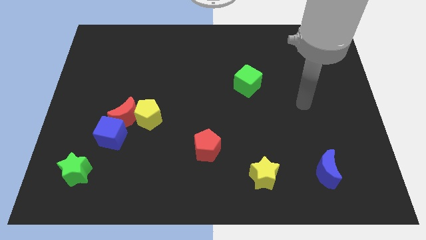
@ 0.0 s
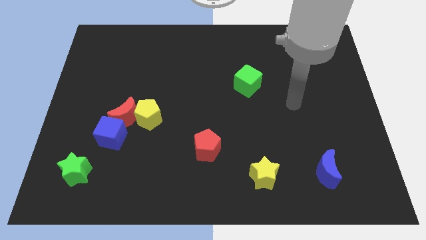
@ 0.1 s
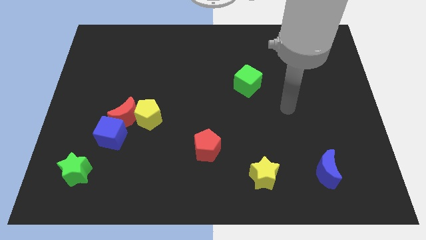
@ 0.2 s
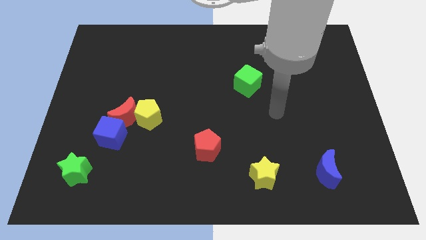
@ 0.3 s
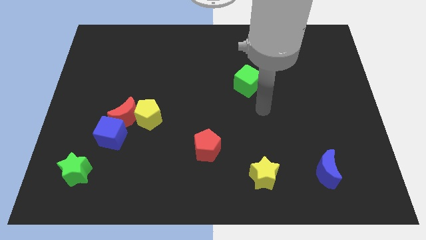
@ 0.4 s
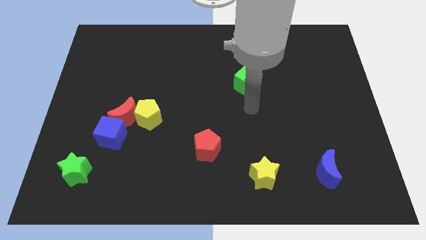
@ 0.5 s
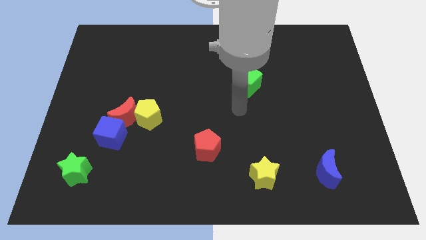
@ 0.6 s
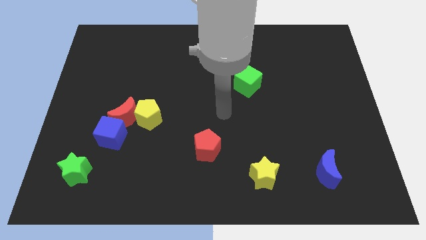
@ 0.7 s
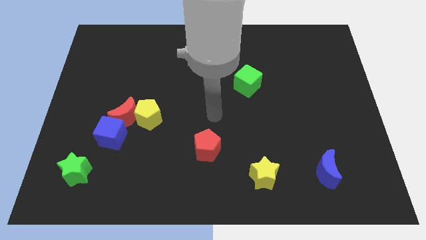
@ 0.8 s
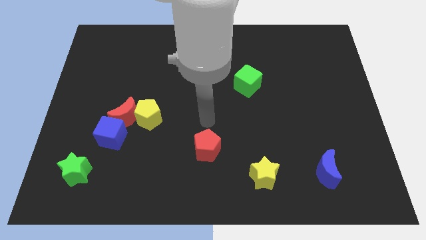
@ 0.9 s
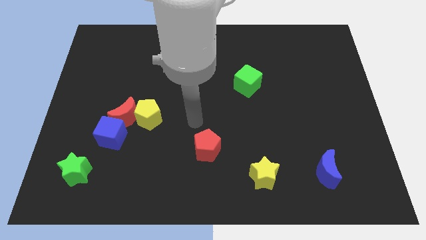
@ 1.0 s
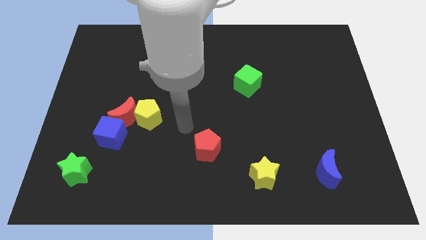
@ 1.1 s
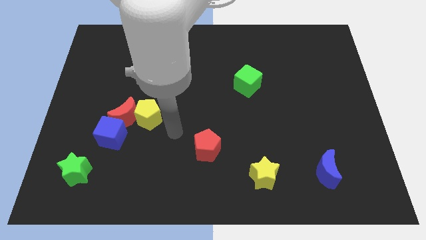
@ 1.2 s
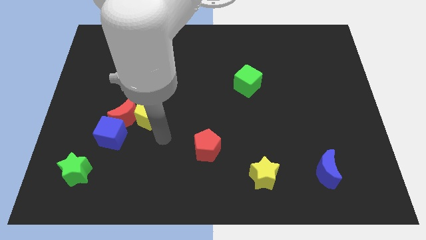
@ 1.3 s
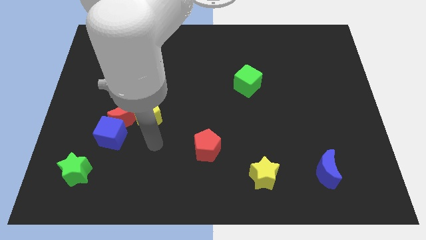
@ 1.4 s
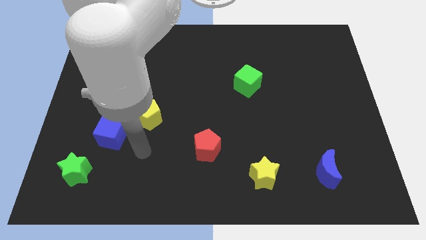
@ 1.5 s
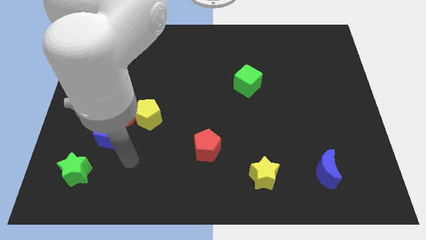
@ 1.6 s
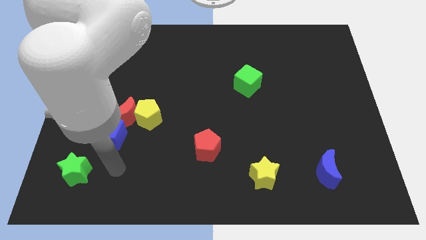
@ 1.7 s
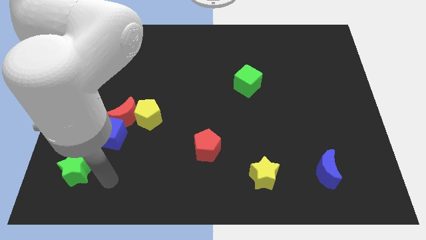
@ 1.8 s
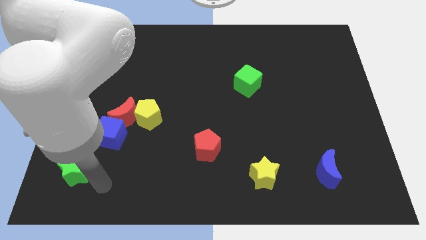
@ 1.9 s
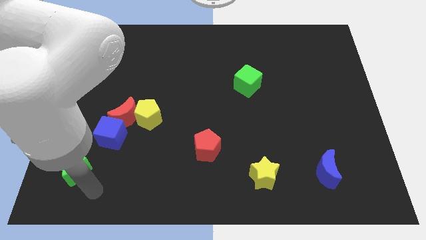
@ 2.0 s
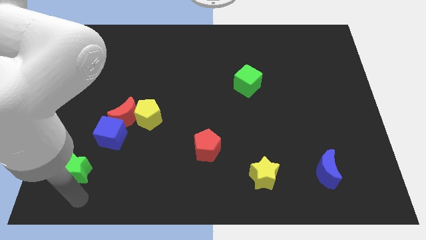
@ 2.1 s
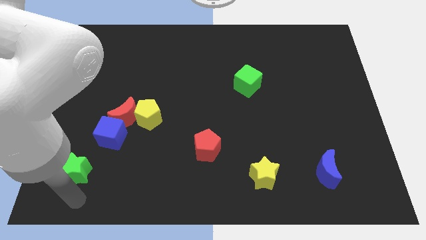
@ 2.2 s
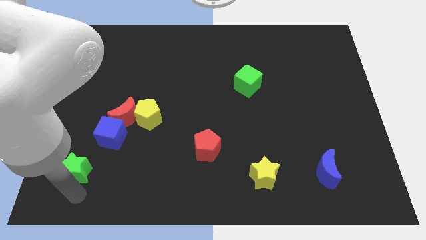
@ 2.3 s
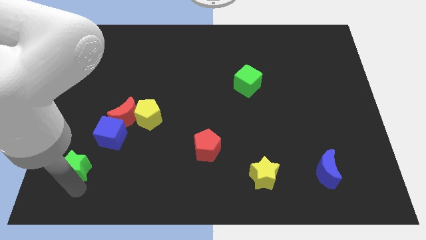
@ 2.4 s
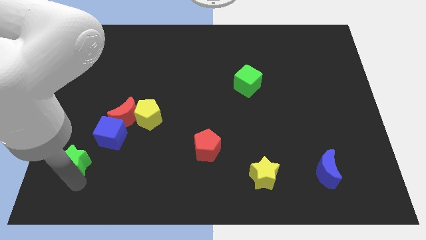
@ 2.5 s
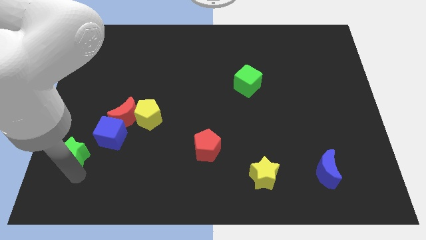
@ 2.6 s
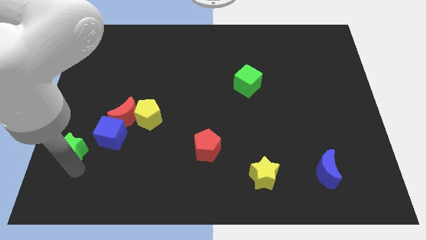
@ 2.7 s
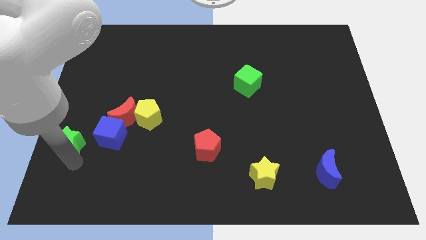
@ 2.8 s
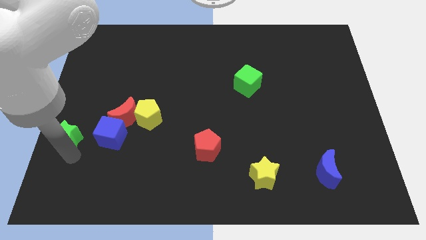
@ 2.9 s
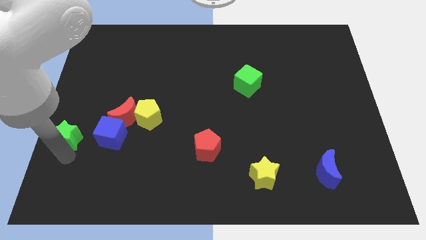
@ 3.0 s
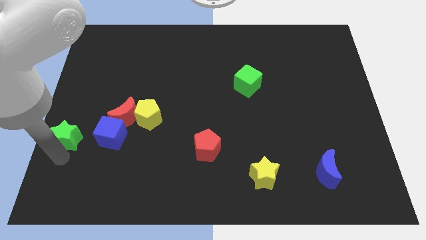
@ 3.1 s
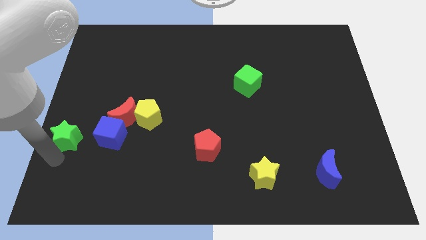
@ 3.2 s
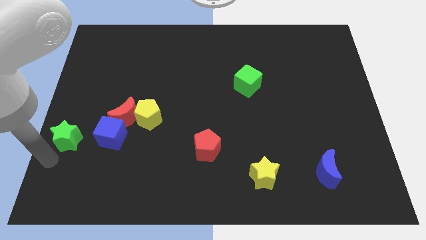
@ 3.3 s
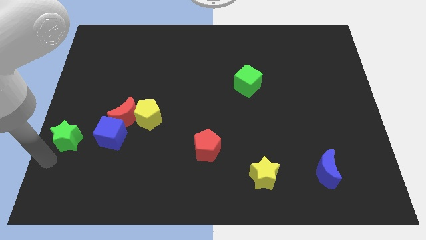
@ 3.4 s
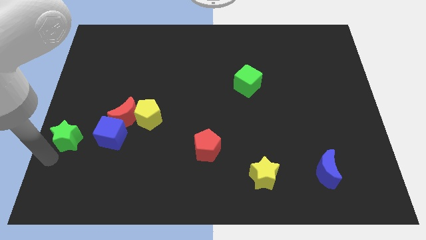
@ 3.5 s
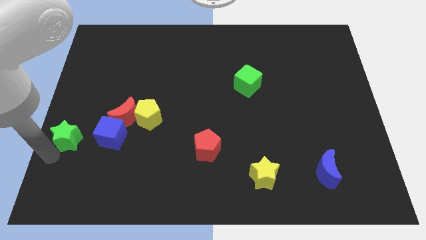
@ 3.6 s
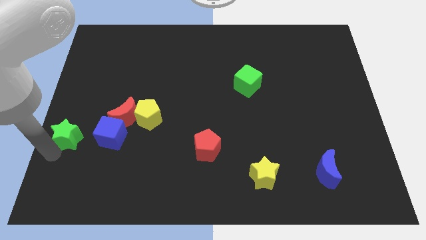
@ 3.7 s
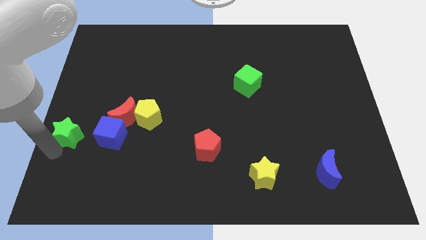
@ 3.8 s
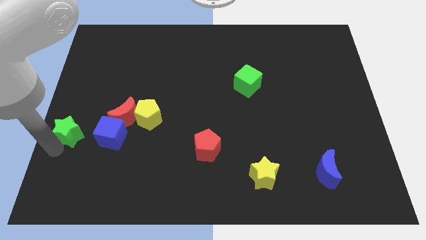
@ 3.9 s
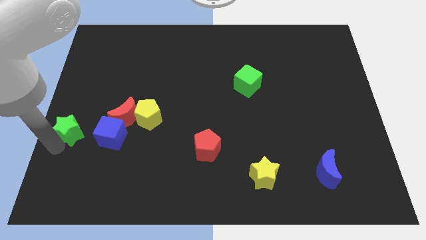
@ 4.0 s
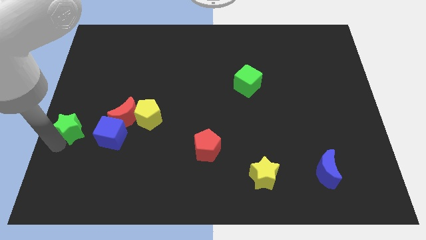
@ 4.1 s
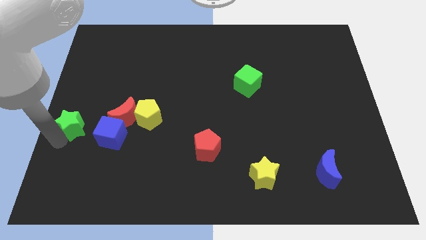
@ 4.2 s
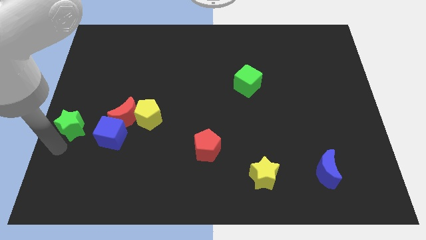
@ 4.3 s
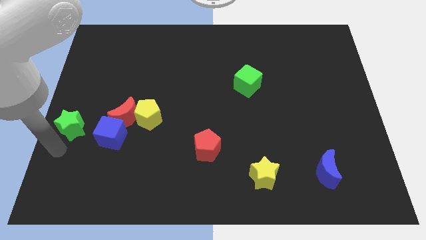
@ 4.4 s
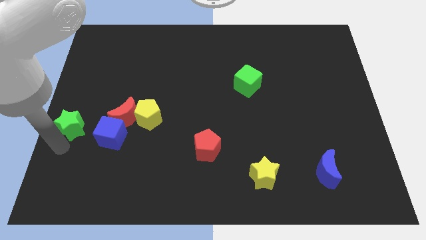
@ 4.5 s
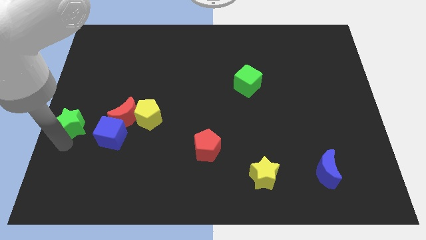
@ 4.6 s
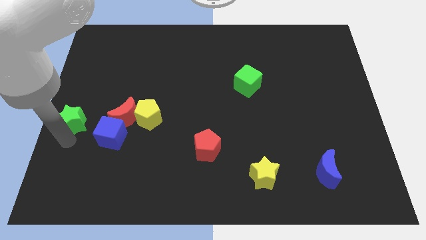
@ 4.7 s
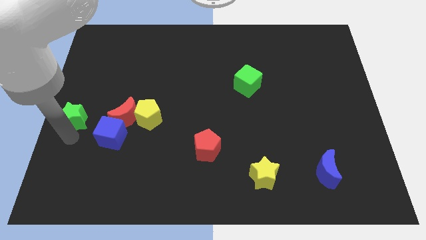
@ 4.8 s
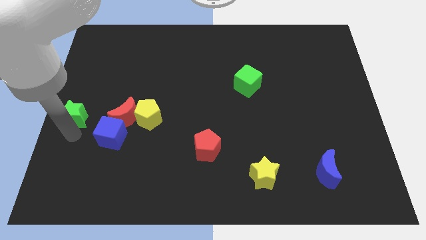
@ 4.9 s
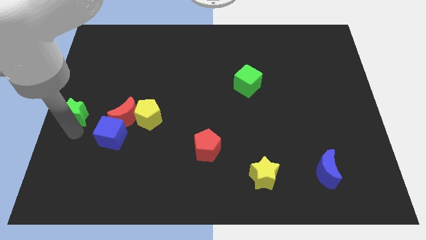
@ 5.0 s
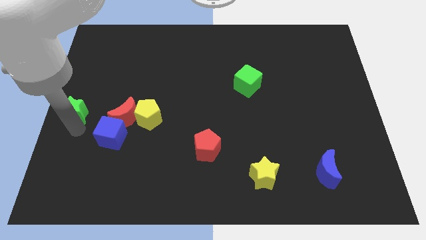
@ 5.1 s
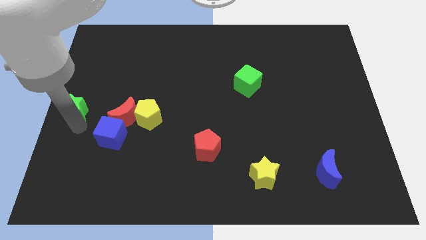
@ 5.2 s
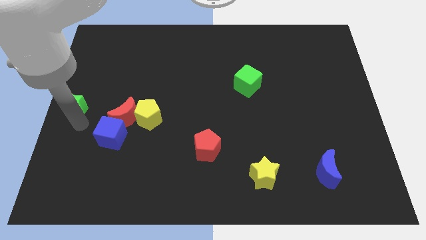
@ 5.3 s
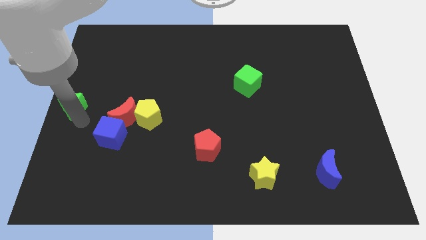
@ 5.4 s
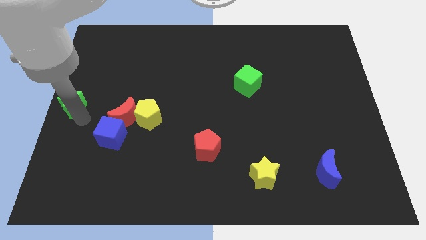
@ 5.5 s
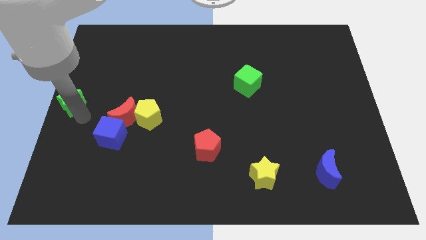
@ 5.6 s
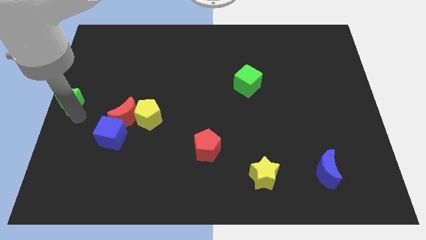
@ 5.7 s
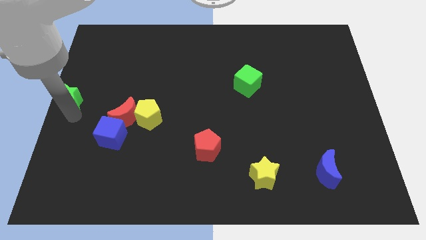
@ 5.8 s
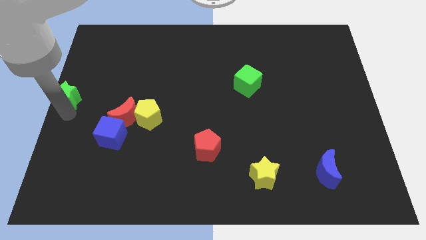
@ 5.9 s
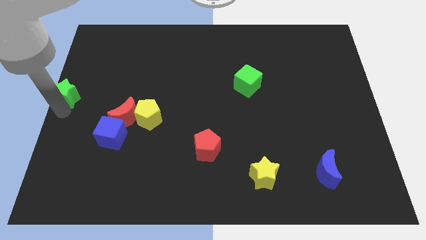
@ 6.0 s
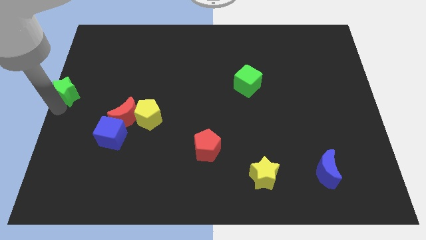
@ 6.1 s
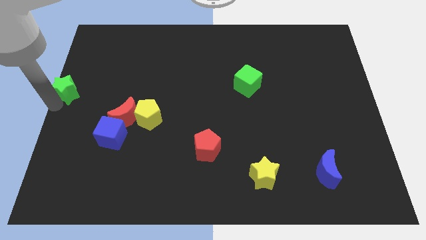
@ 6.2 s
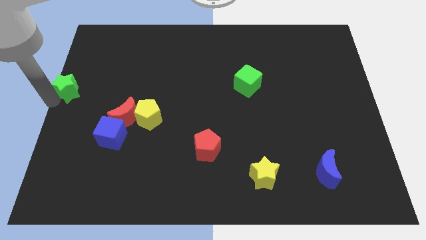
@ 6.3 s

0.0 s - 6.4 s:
push the green star upwards

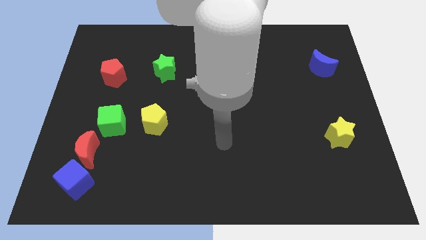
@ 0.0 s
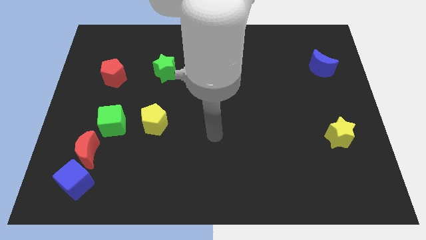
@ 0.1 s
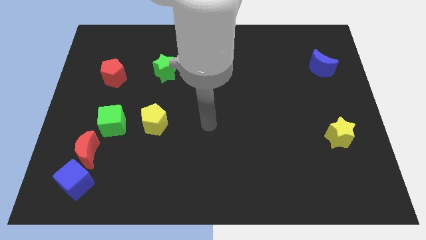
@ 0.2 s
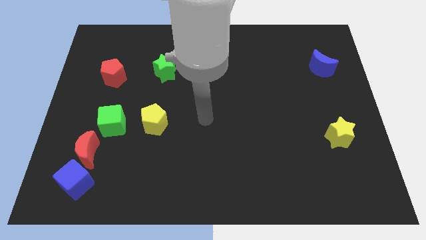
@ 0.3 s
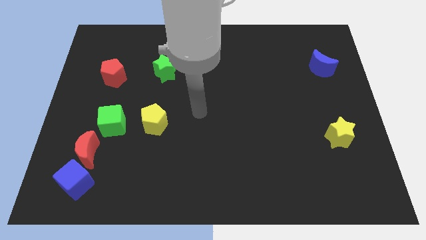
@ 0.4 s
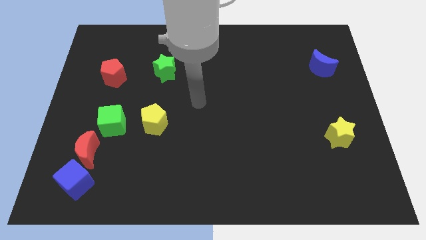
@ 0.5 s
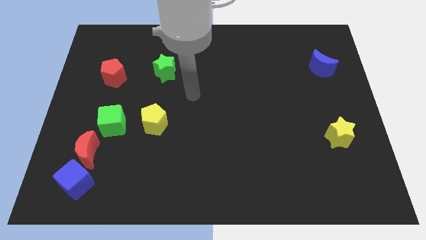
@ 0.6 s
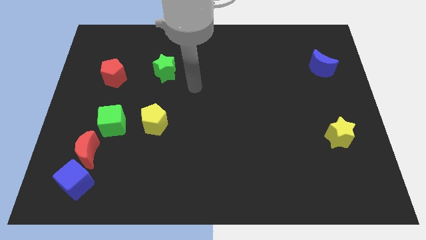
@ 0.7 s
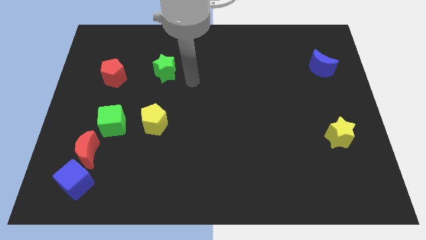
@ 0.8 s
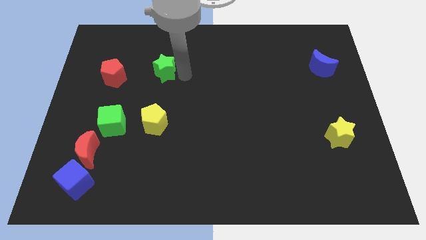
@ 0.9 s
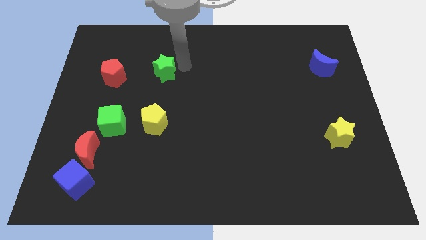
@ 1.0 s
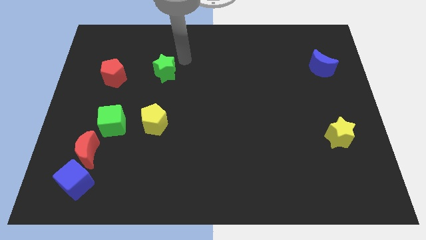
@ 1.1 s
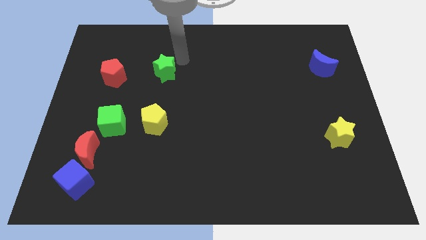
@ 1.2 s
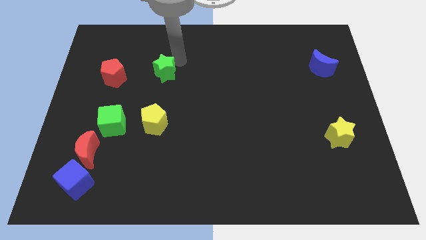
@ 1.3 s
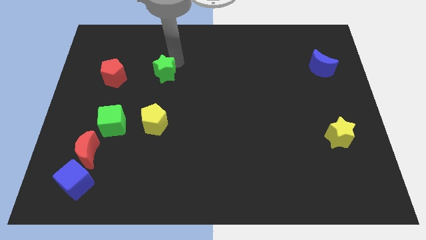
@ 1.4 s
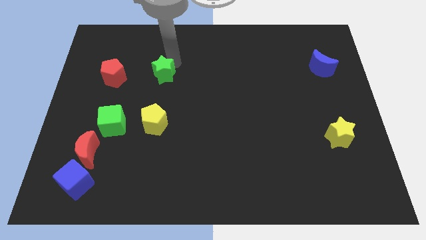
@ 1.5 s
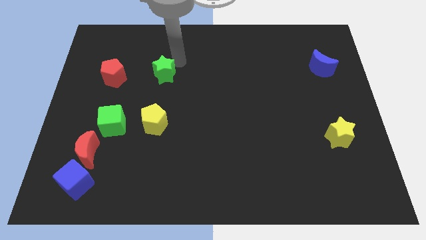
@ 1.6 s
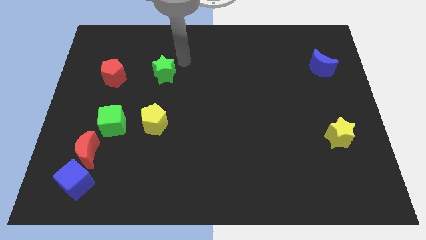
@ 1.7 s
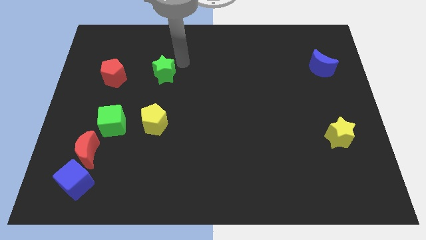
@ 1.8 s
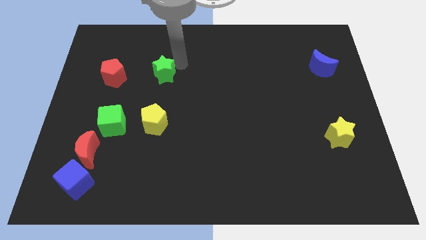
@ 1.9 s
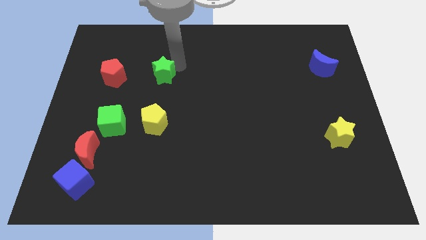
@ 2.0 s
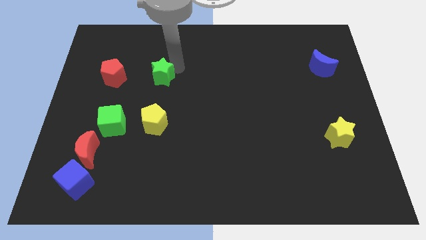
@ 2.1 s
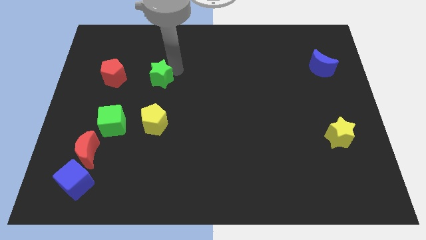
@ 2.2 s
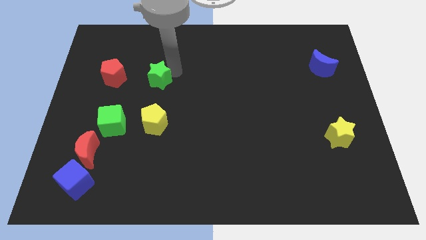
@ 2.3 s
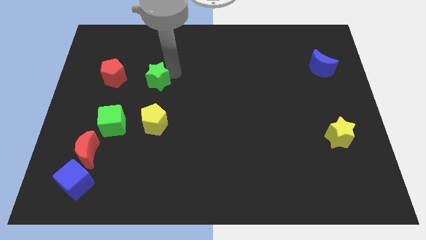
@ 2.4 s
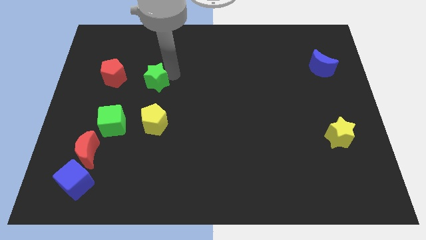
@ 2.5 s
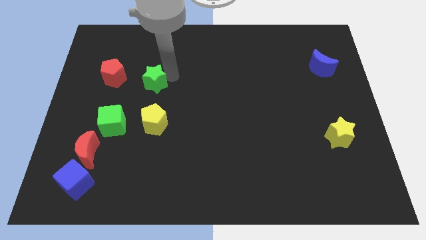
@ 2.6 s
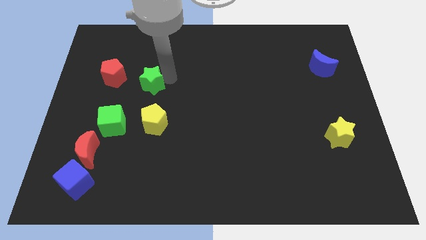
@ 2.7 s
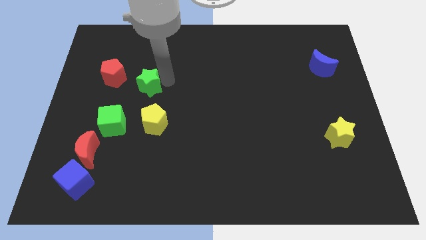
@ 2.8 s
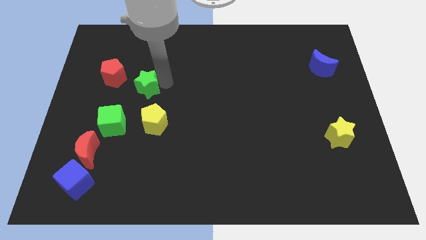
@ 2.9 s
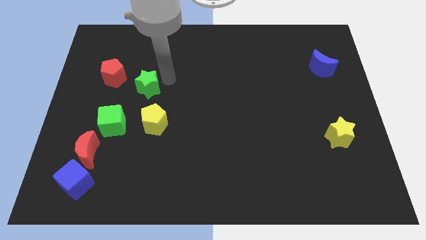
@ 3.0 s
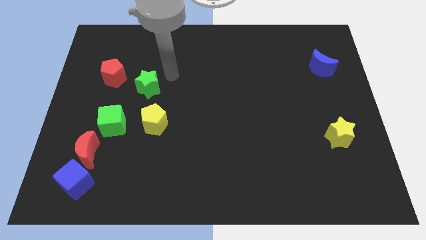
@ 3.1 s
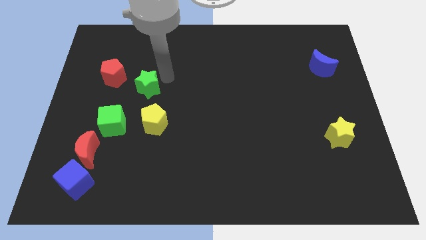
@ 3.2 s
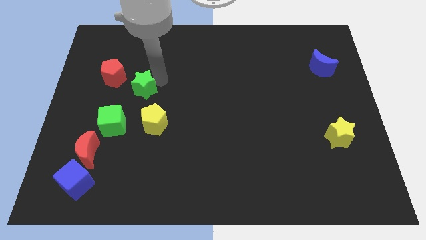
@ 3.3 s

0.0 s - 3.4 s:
slightly move the green star downwards and left diagonally
